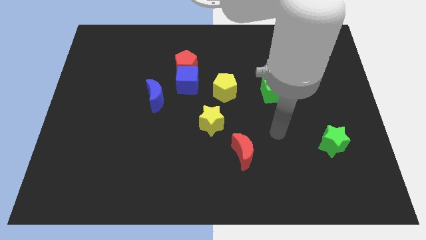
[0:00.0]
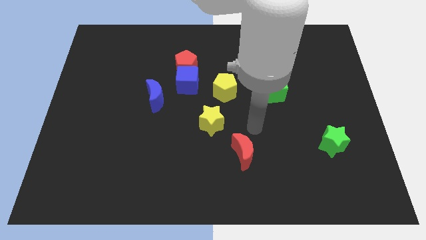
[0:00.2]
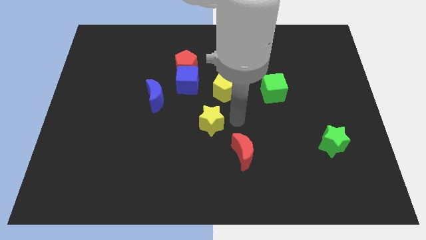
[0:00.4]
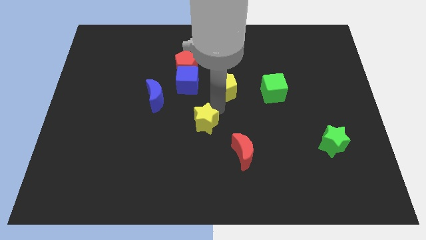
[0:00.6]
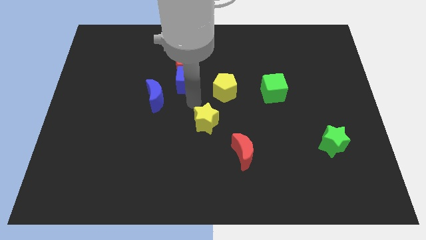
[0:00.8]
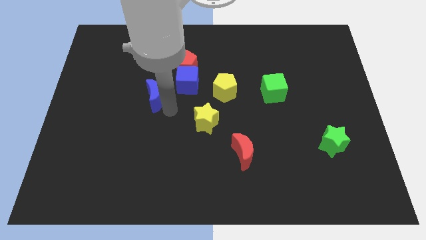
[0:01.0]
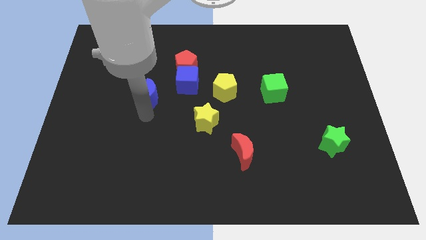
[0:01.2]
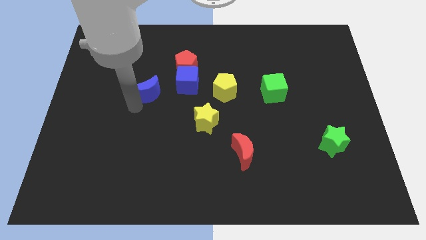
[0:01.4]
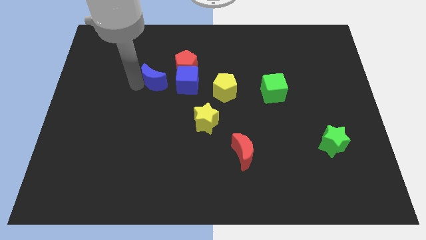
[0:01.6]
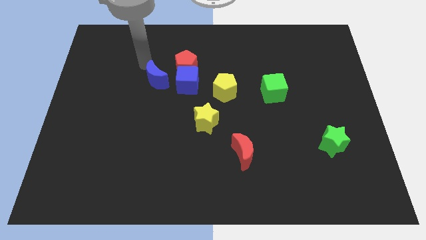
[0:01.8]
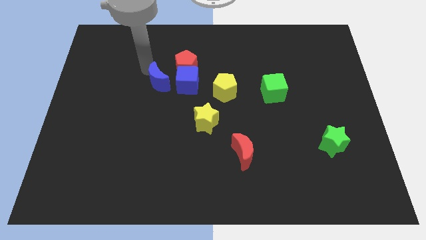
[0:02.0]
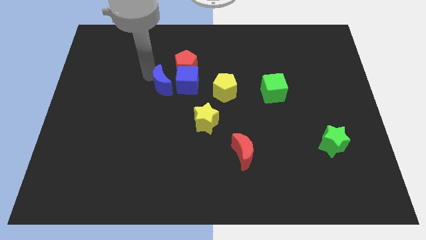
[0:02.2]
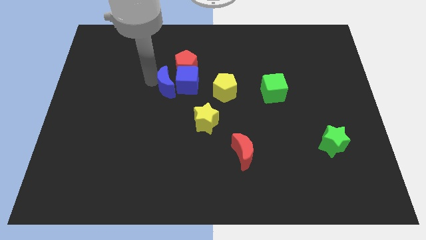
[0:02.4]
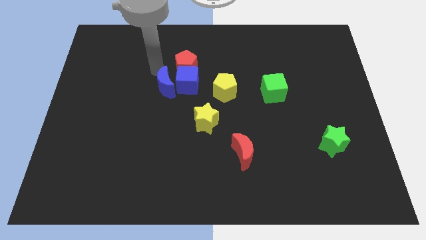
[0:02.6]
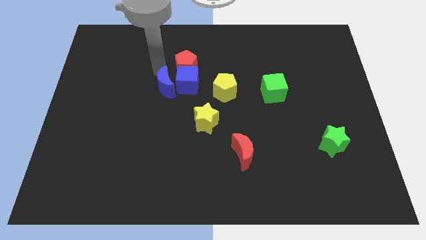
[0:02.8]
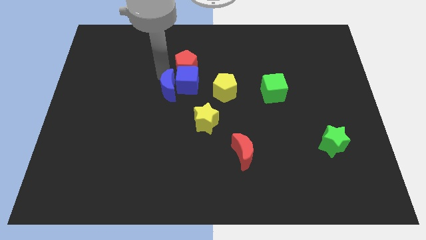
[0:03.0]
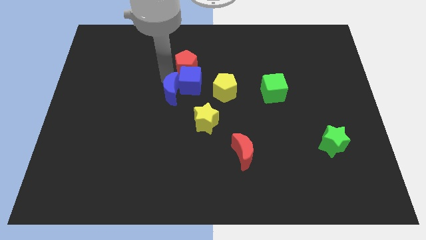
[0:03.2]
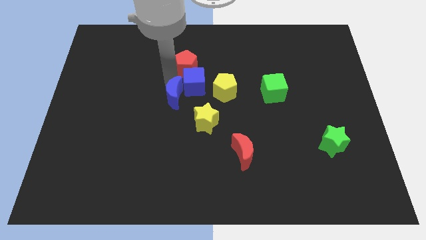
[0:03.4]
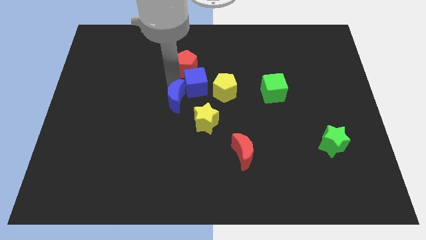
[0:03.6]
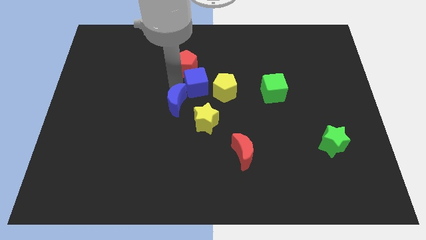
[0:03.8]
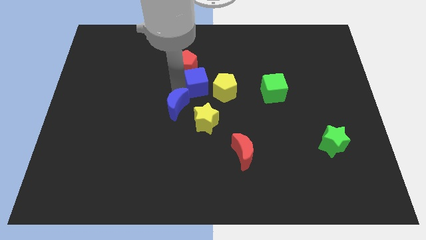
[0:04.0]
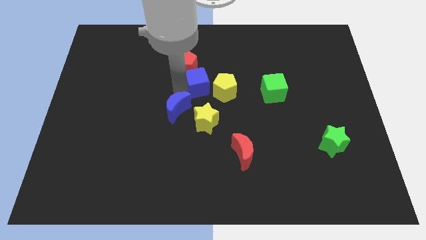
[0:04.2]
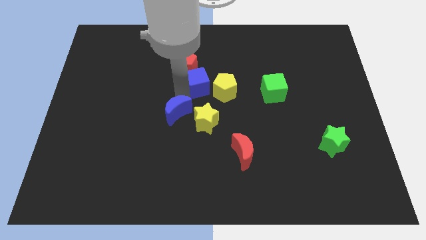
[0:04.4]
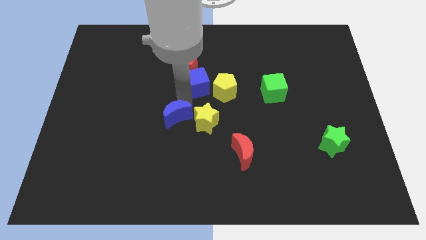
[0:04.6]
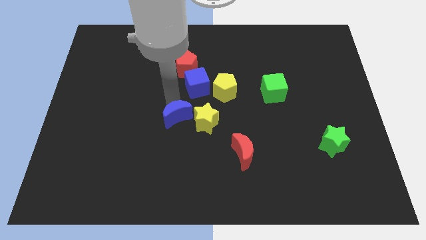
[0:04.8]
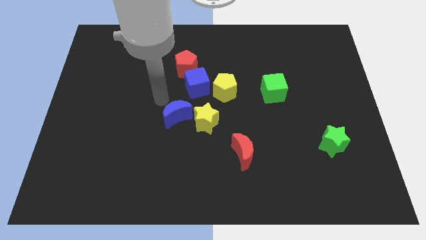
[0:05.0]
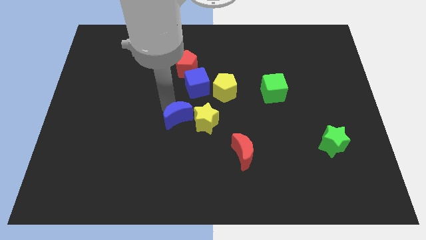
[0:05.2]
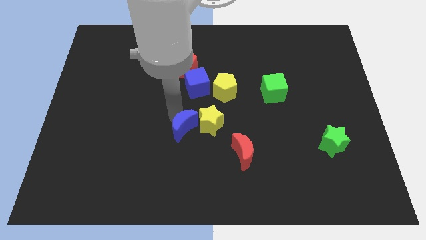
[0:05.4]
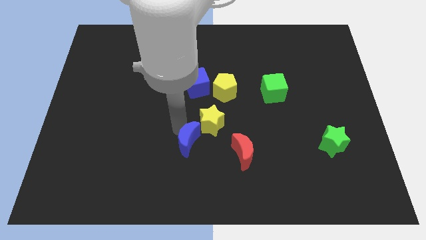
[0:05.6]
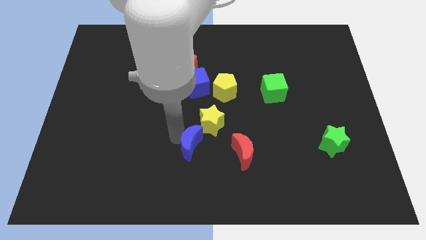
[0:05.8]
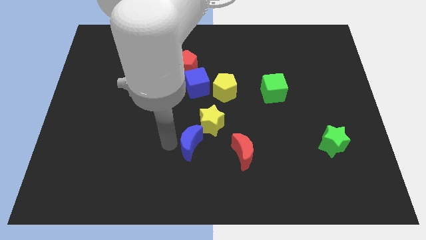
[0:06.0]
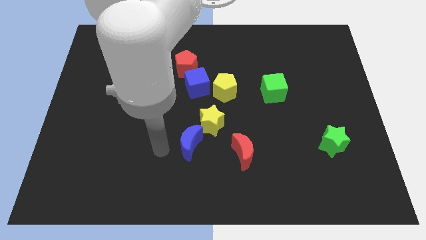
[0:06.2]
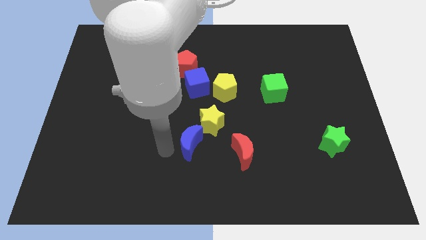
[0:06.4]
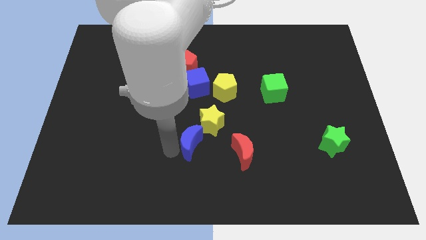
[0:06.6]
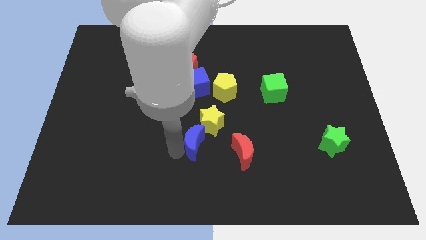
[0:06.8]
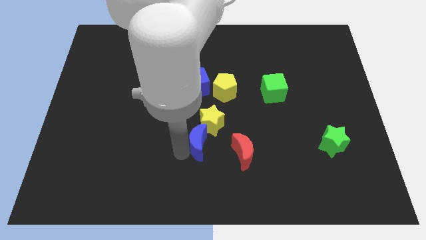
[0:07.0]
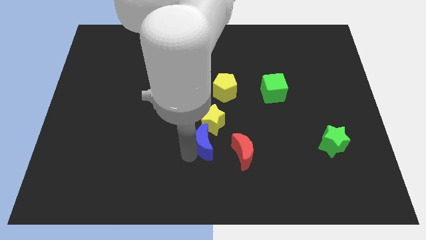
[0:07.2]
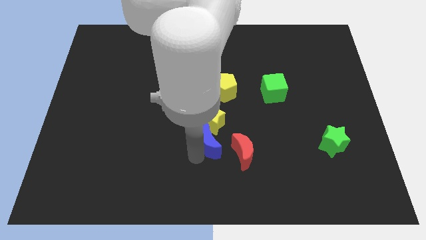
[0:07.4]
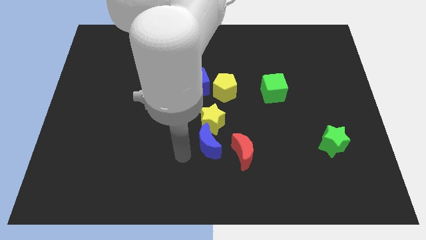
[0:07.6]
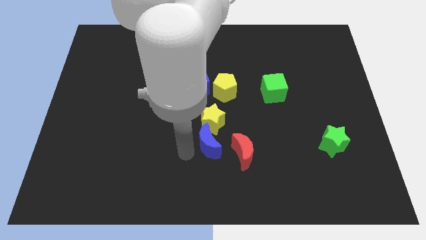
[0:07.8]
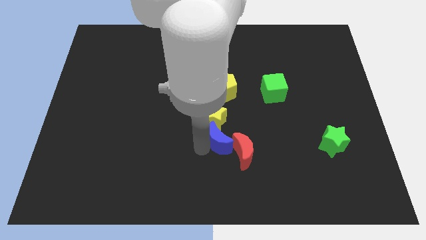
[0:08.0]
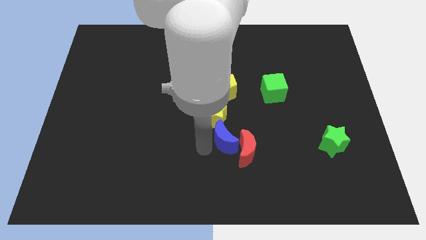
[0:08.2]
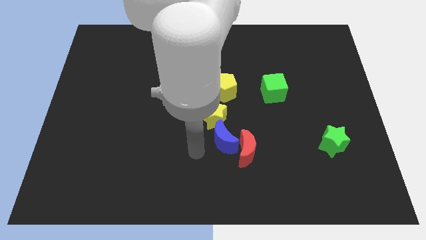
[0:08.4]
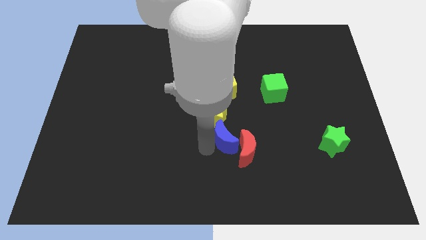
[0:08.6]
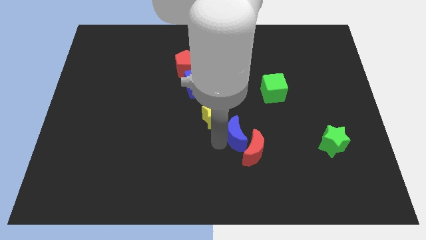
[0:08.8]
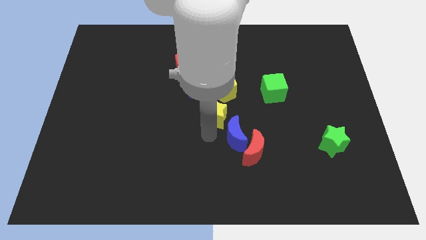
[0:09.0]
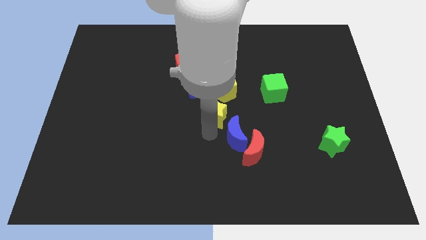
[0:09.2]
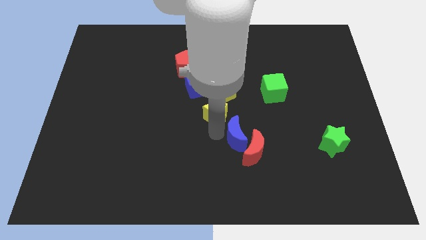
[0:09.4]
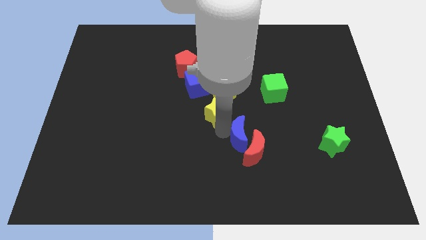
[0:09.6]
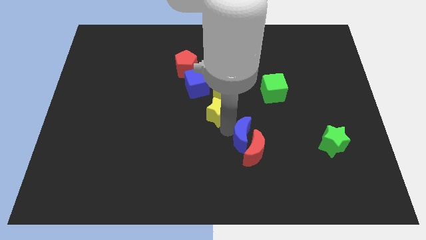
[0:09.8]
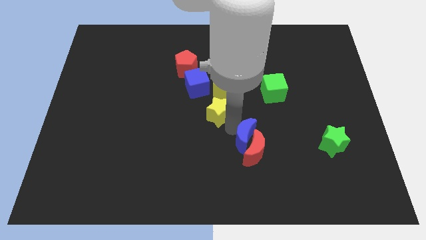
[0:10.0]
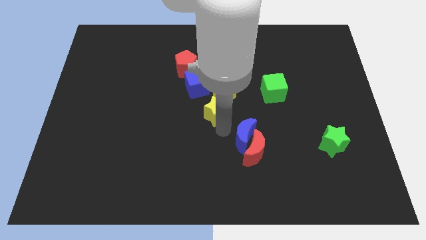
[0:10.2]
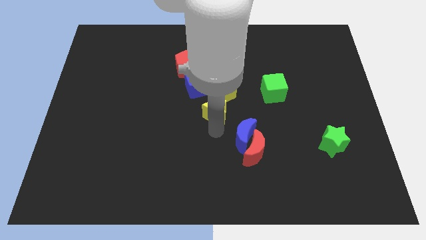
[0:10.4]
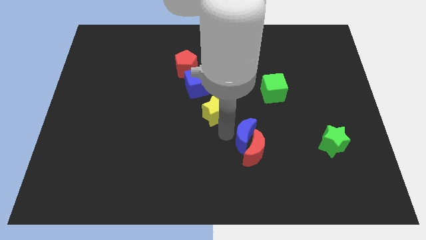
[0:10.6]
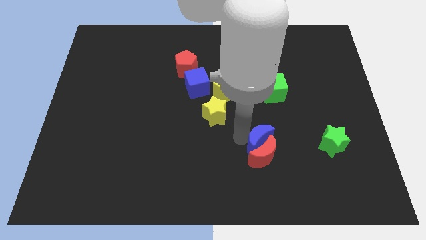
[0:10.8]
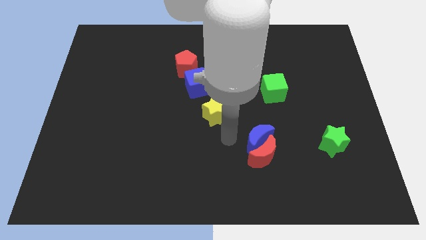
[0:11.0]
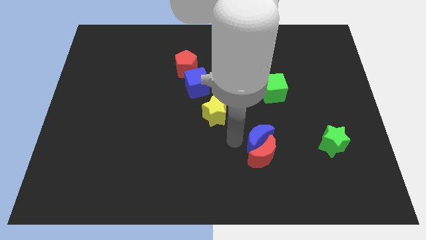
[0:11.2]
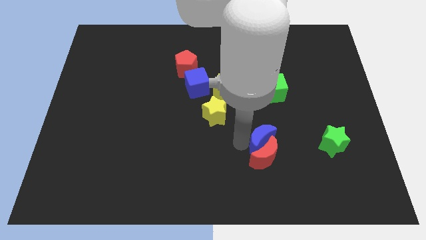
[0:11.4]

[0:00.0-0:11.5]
move the blue moon left of the green star
